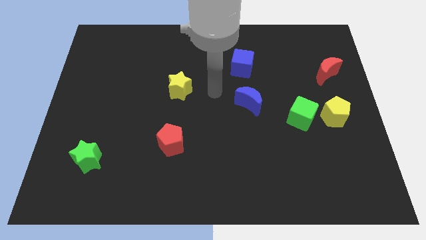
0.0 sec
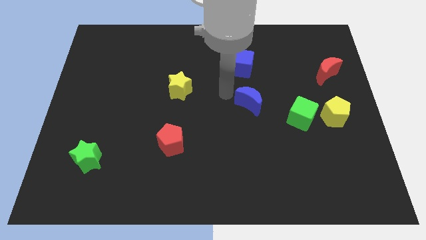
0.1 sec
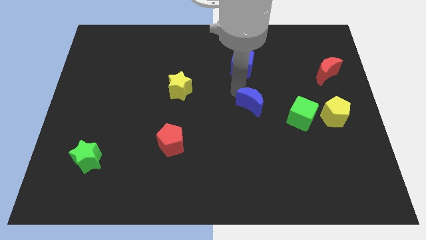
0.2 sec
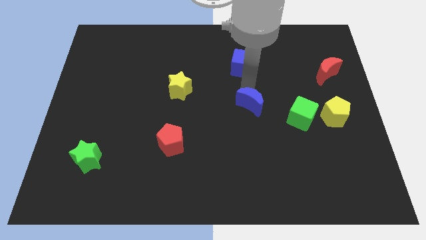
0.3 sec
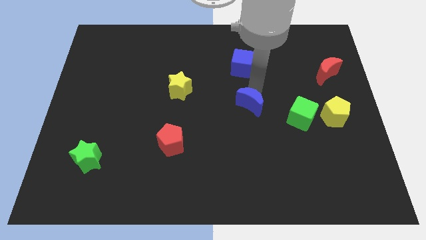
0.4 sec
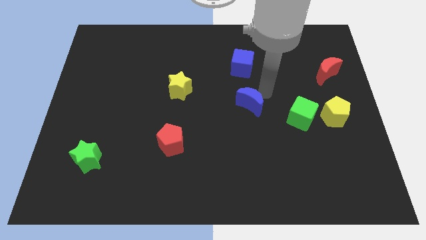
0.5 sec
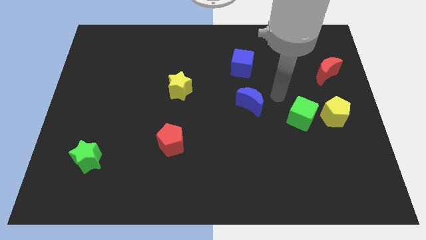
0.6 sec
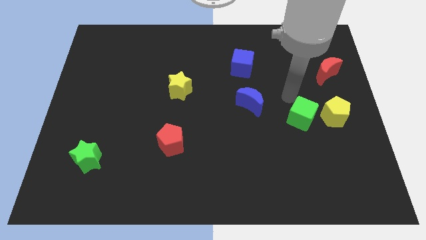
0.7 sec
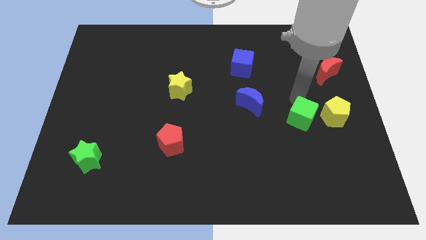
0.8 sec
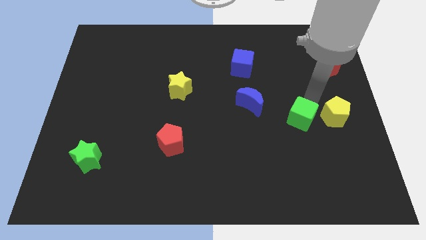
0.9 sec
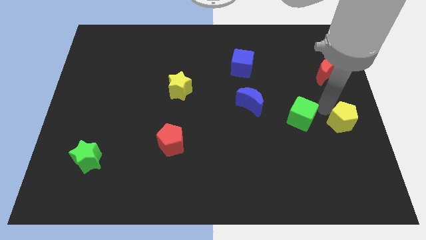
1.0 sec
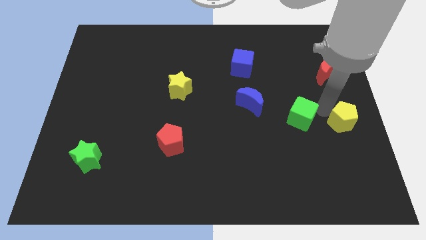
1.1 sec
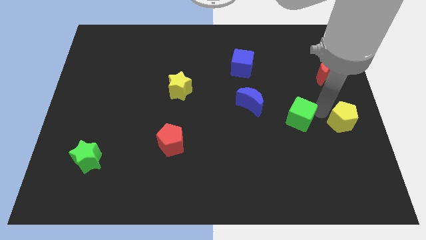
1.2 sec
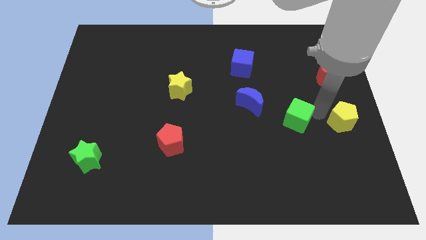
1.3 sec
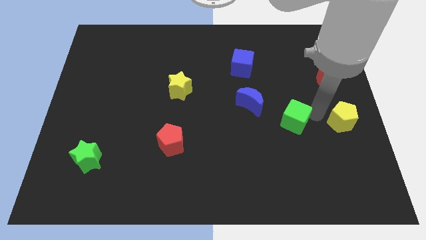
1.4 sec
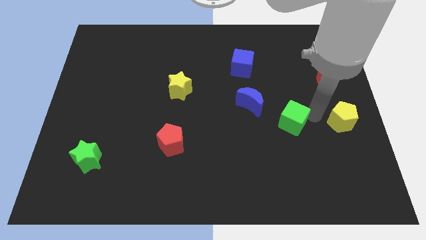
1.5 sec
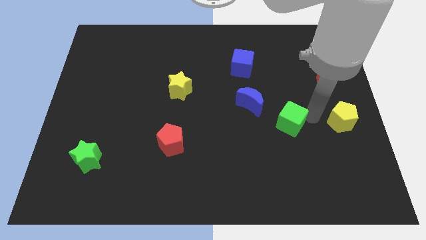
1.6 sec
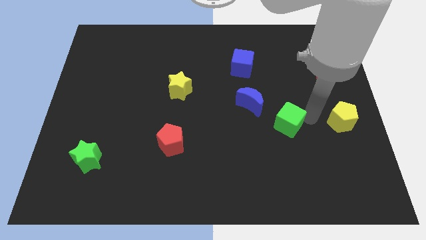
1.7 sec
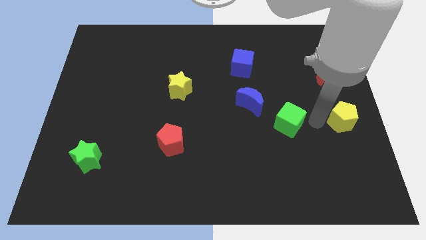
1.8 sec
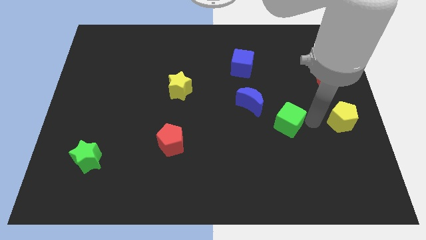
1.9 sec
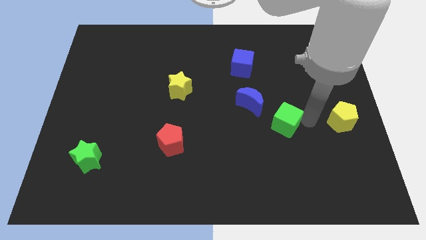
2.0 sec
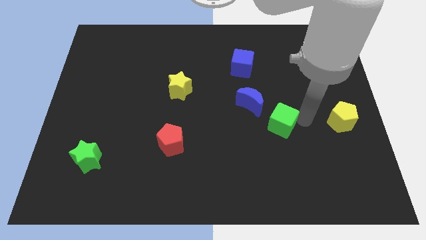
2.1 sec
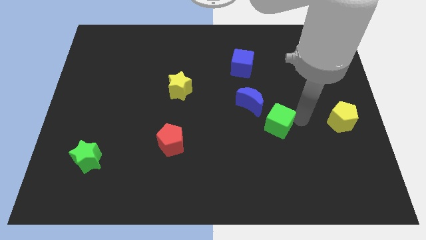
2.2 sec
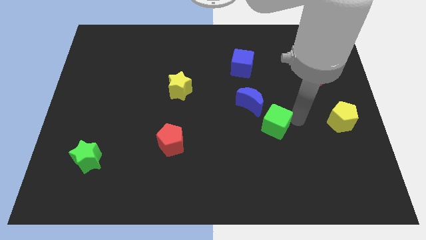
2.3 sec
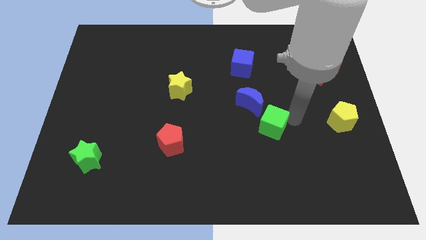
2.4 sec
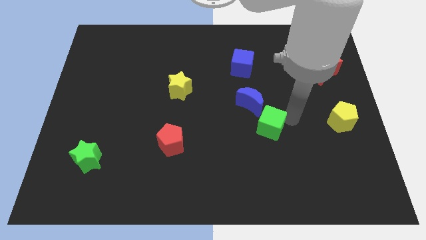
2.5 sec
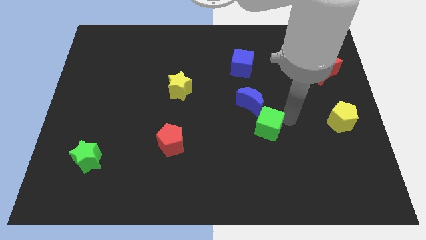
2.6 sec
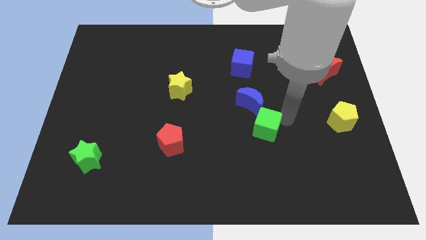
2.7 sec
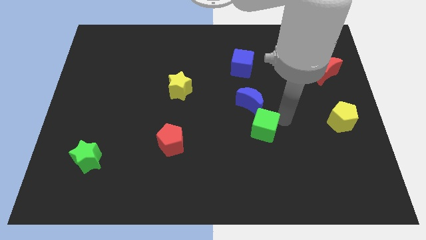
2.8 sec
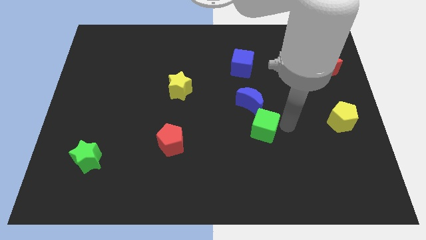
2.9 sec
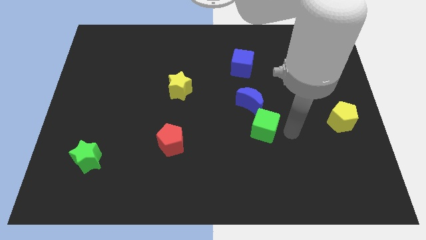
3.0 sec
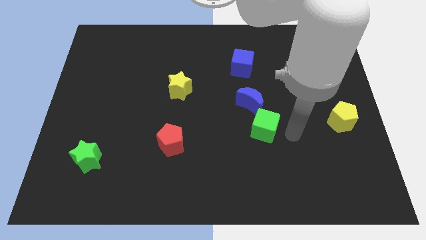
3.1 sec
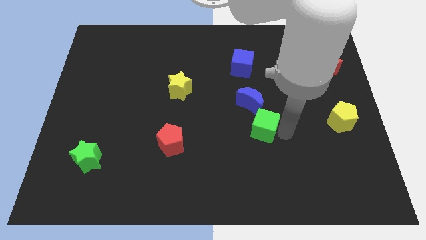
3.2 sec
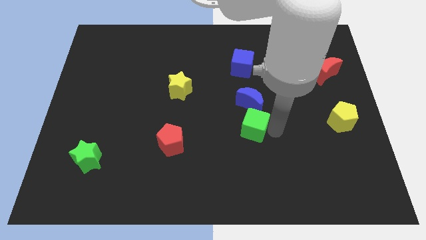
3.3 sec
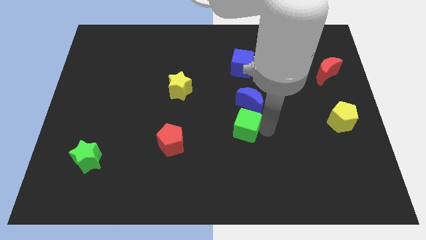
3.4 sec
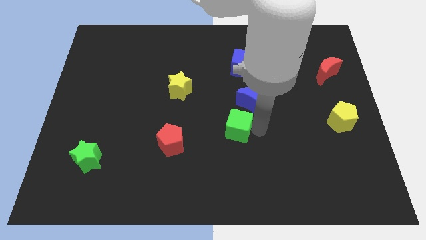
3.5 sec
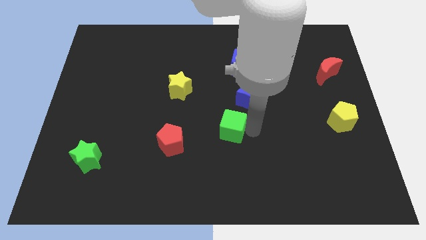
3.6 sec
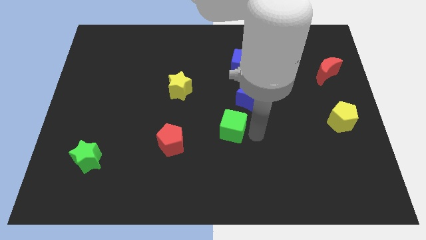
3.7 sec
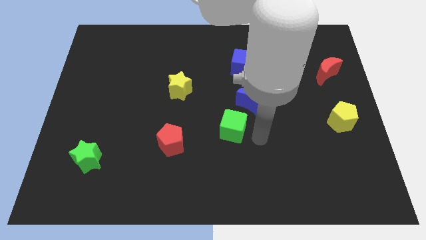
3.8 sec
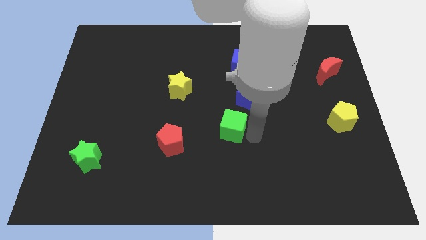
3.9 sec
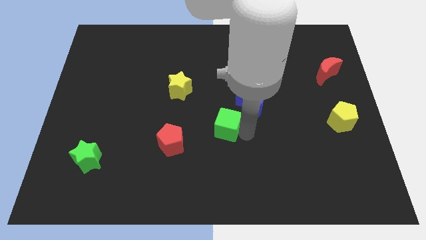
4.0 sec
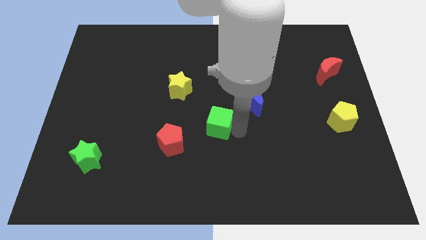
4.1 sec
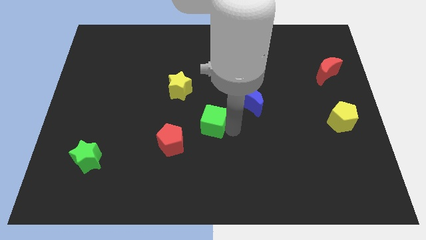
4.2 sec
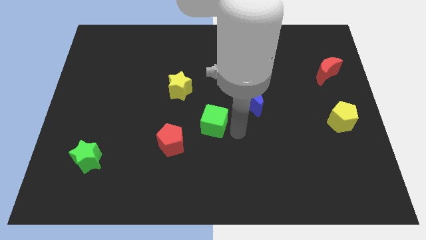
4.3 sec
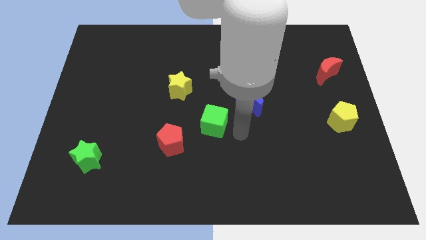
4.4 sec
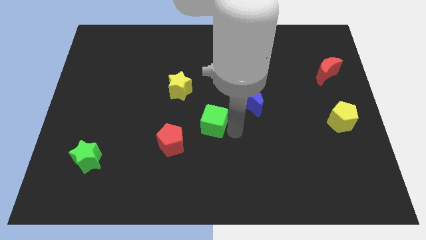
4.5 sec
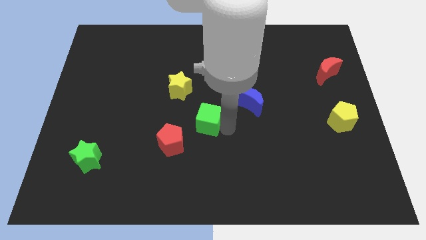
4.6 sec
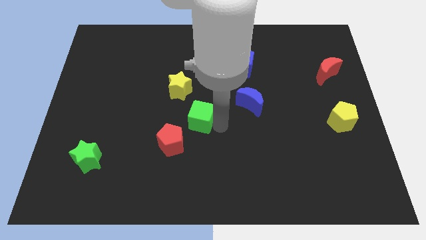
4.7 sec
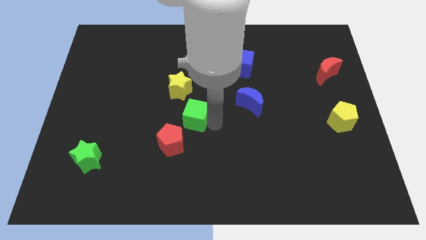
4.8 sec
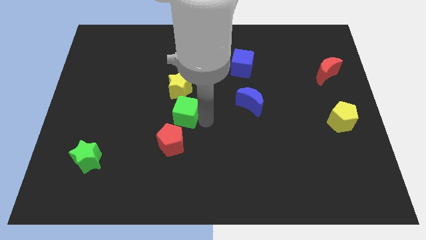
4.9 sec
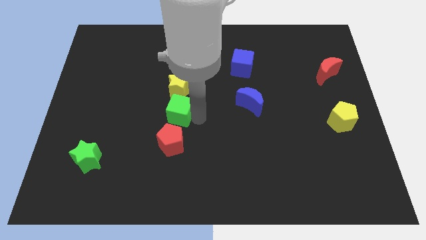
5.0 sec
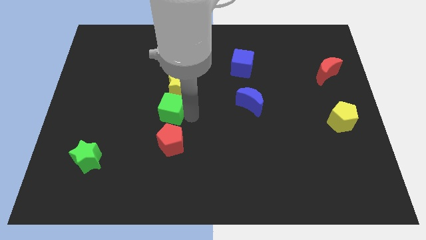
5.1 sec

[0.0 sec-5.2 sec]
slide the green cube diagonally down and to the left of the yellow star

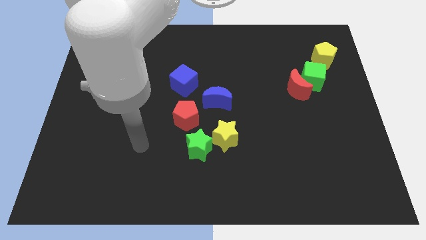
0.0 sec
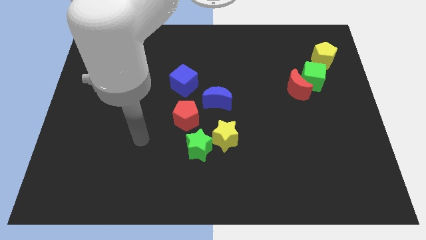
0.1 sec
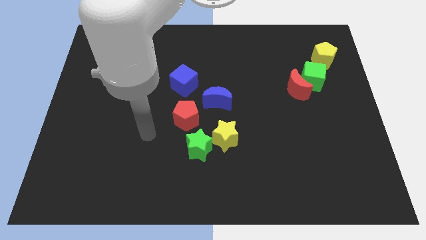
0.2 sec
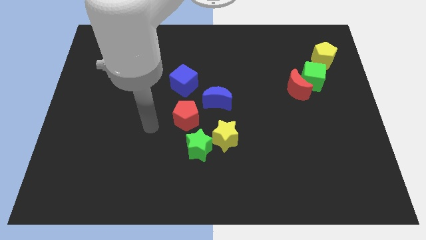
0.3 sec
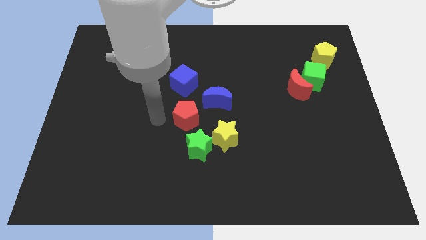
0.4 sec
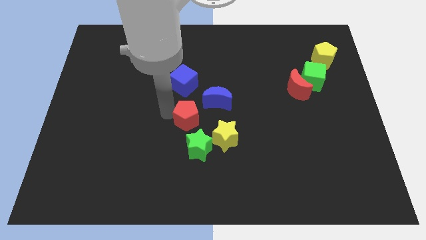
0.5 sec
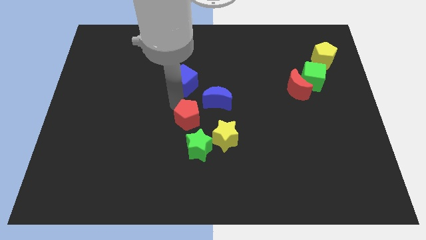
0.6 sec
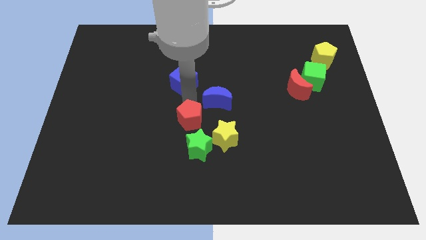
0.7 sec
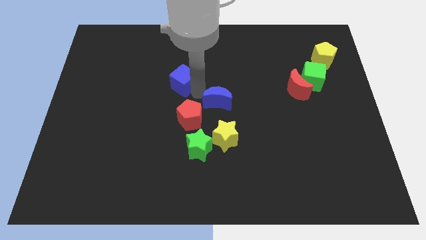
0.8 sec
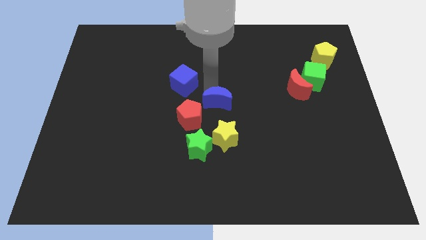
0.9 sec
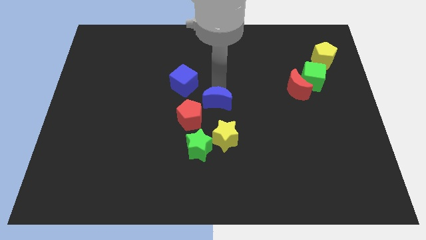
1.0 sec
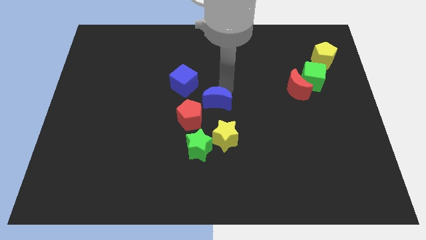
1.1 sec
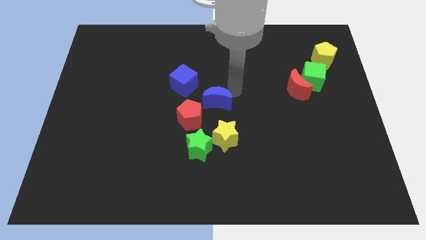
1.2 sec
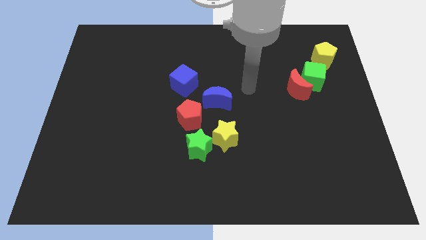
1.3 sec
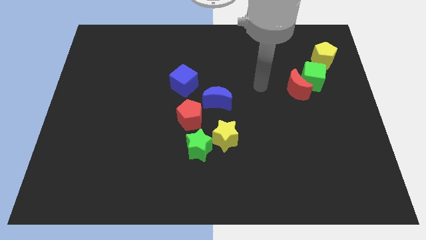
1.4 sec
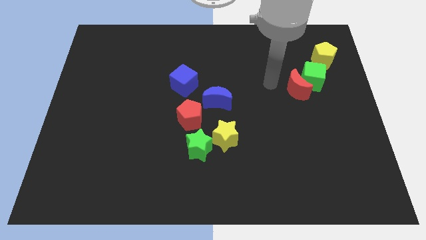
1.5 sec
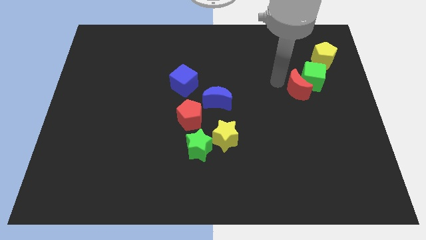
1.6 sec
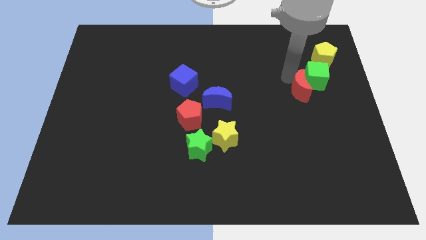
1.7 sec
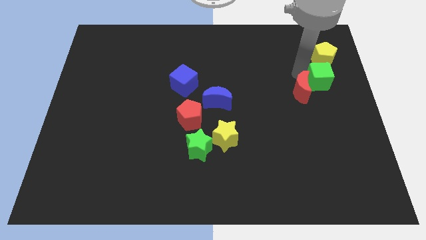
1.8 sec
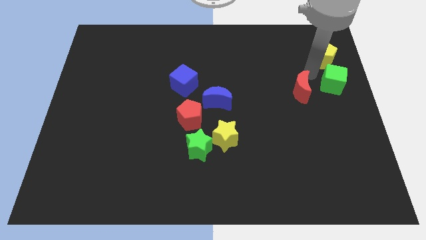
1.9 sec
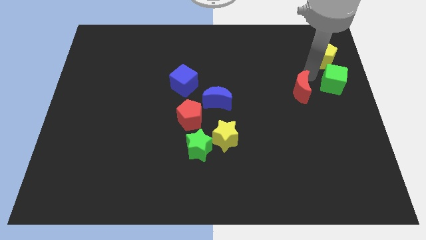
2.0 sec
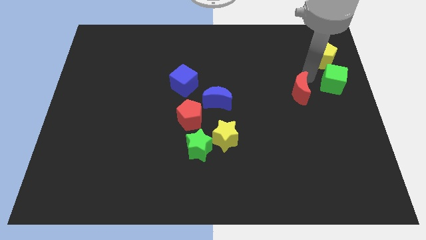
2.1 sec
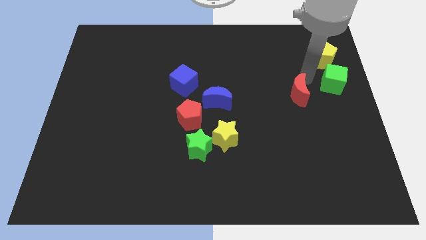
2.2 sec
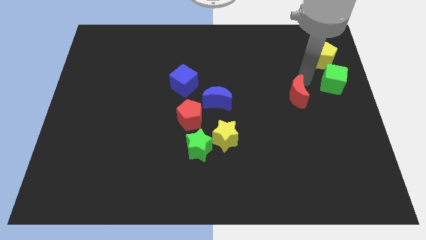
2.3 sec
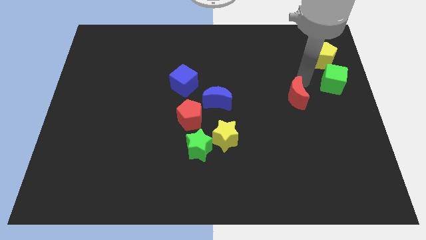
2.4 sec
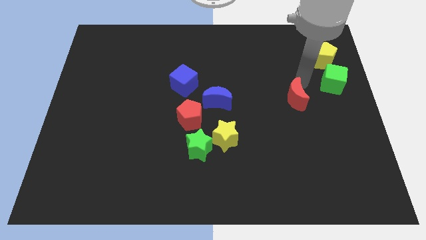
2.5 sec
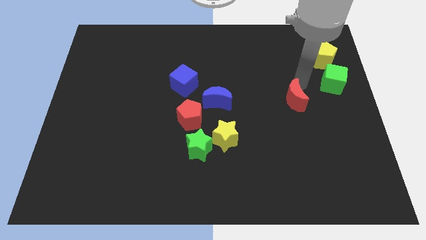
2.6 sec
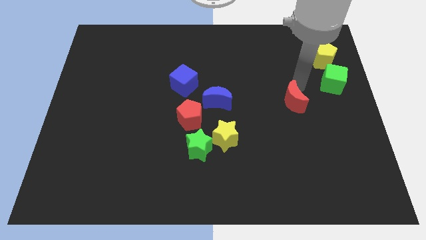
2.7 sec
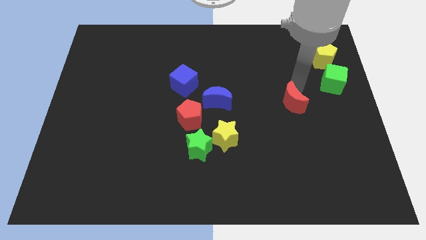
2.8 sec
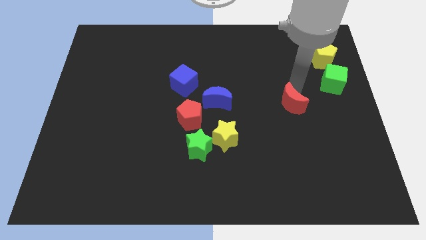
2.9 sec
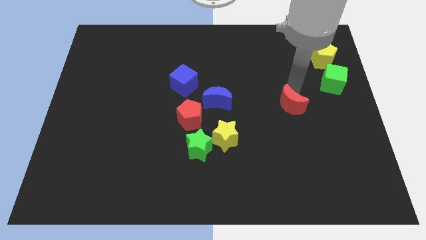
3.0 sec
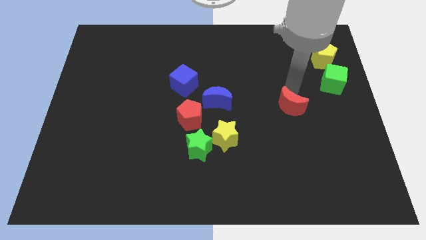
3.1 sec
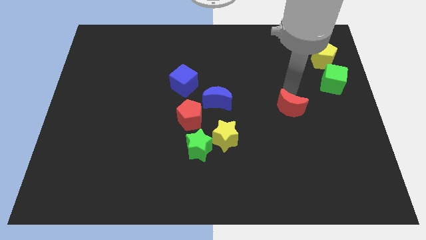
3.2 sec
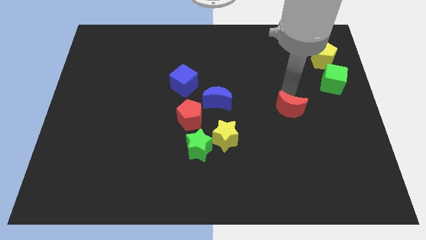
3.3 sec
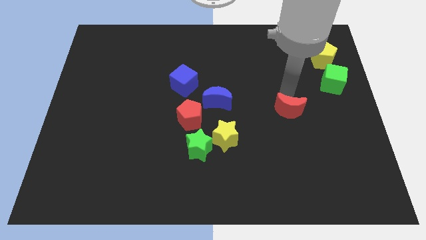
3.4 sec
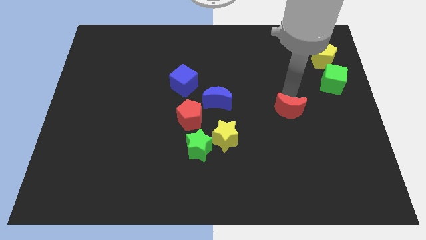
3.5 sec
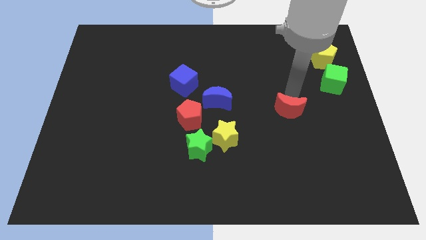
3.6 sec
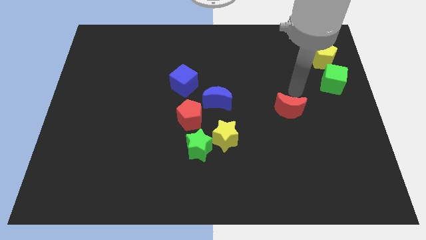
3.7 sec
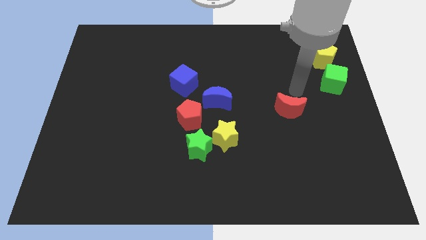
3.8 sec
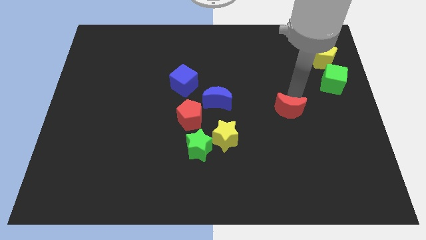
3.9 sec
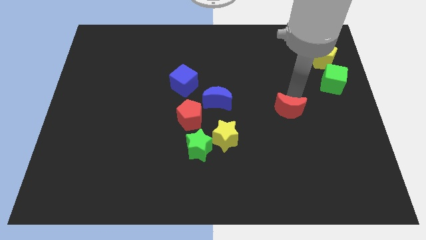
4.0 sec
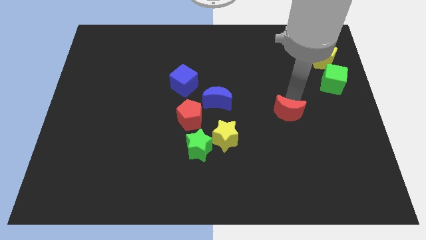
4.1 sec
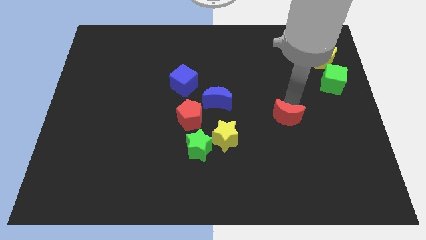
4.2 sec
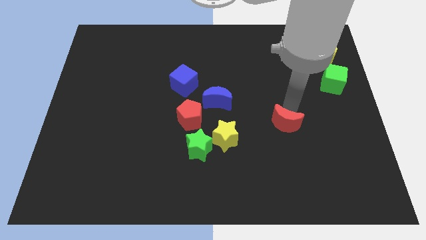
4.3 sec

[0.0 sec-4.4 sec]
slide the red moon just right of the yellow star
